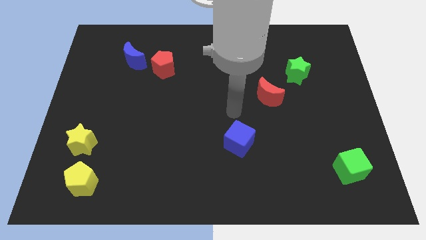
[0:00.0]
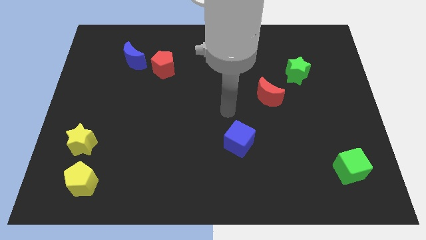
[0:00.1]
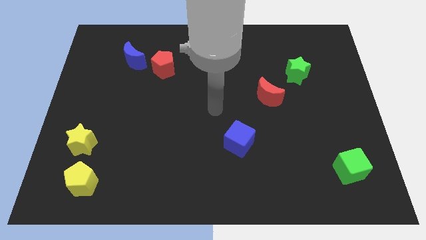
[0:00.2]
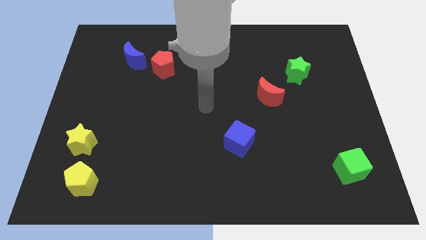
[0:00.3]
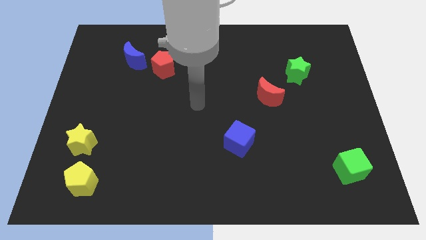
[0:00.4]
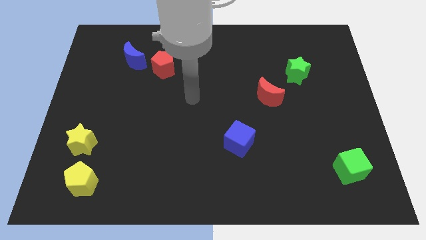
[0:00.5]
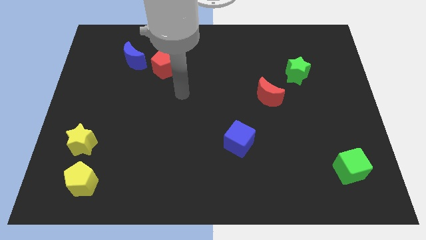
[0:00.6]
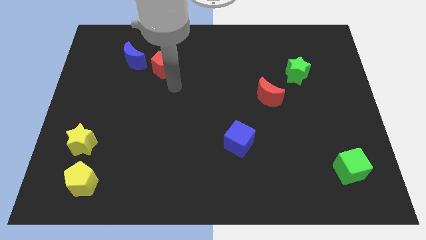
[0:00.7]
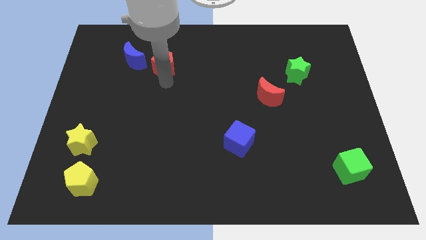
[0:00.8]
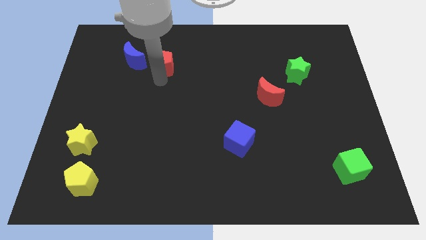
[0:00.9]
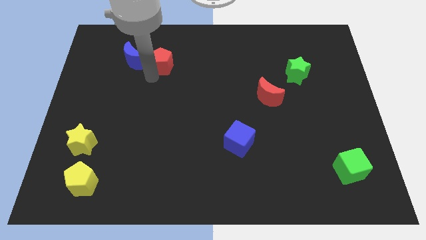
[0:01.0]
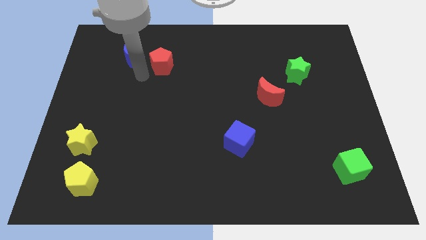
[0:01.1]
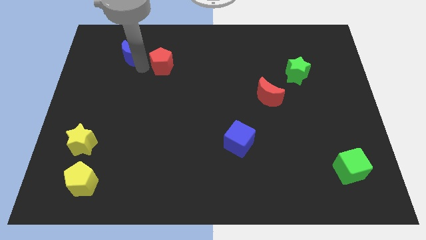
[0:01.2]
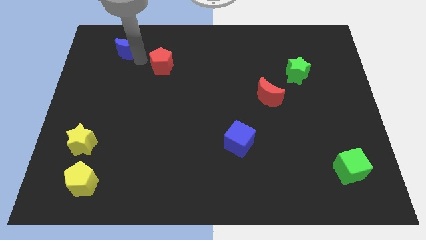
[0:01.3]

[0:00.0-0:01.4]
pull the red pentagon apart from the blue moon

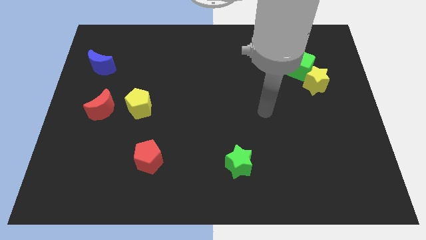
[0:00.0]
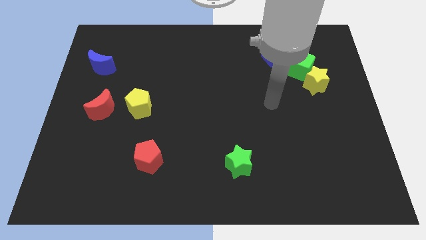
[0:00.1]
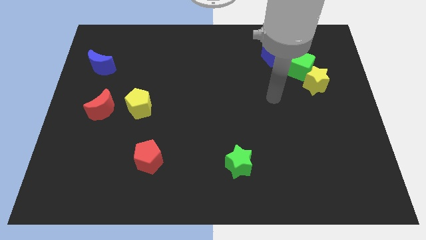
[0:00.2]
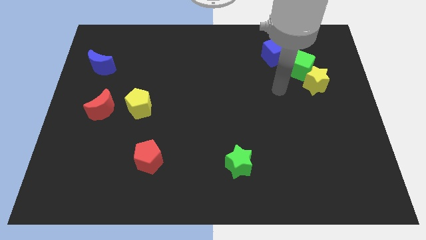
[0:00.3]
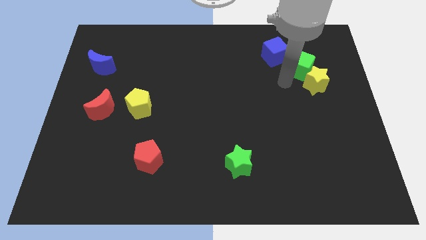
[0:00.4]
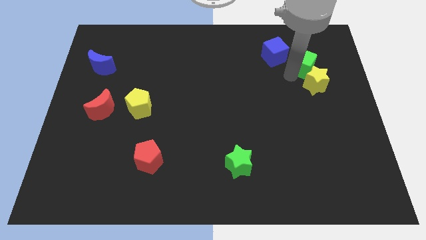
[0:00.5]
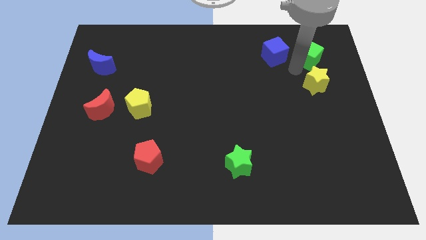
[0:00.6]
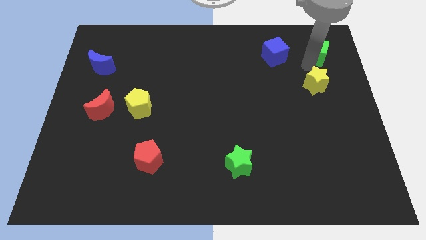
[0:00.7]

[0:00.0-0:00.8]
separate the yellow star from the green cube

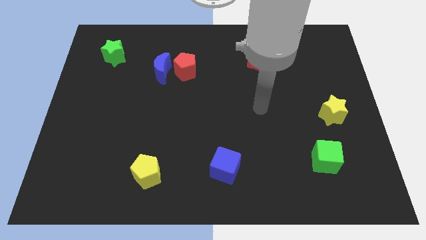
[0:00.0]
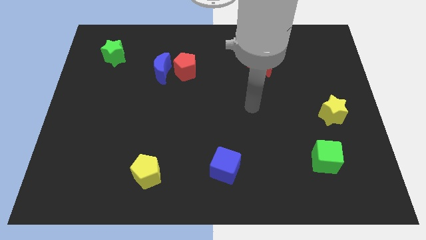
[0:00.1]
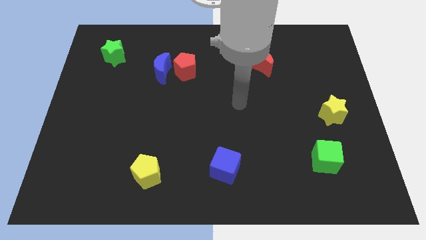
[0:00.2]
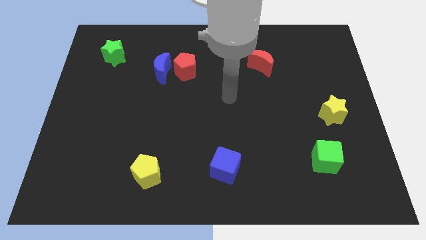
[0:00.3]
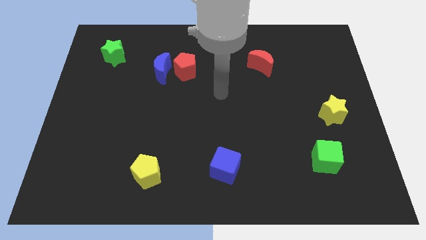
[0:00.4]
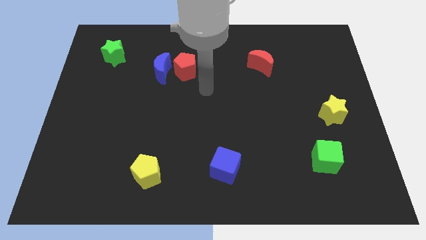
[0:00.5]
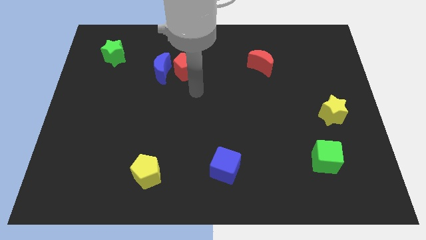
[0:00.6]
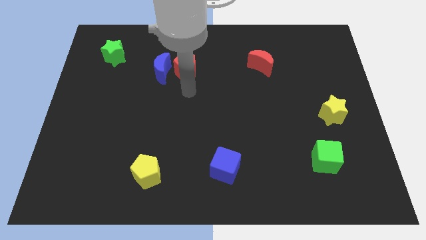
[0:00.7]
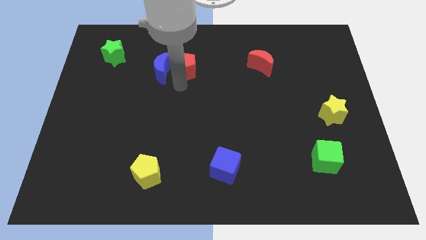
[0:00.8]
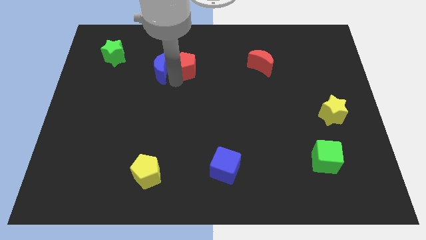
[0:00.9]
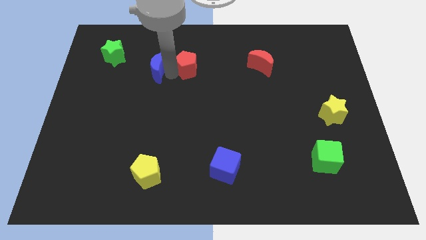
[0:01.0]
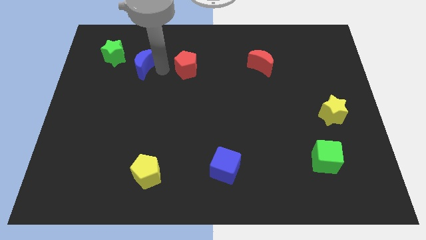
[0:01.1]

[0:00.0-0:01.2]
move the red pentagon away from the blue moon

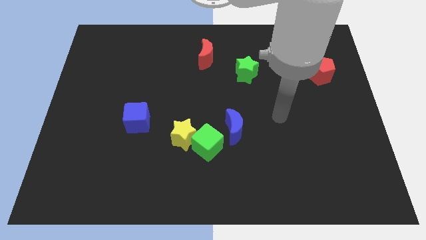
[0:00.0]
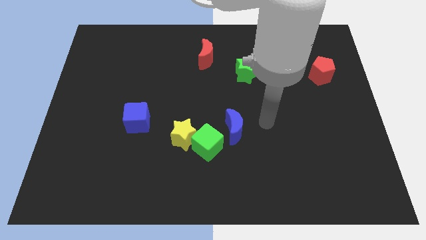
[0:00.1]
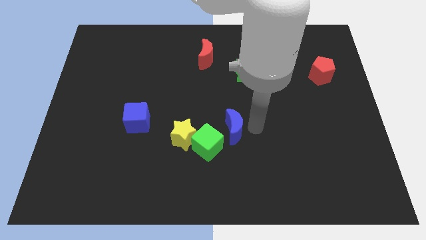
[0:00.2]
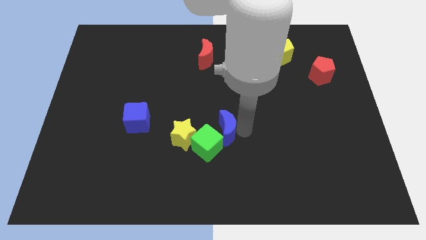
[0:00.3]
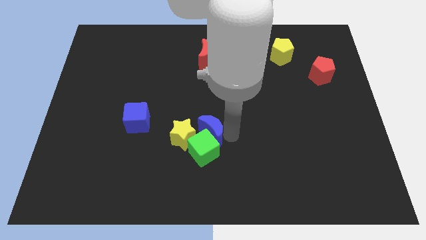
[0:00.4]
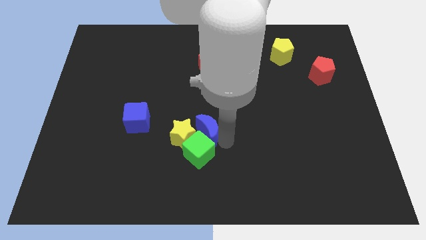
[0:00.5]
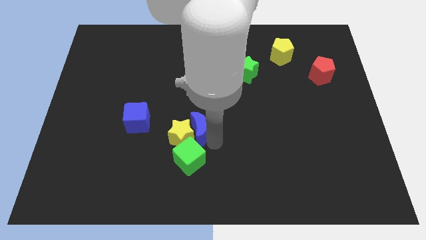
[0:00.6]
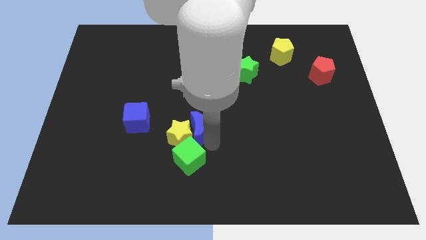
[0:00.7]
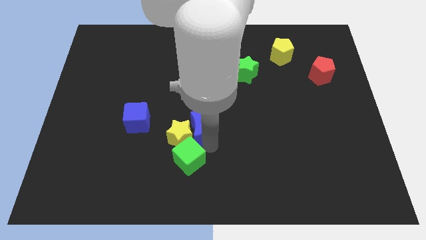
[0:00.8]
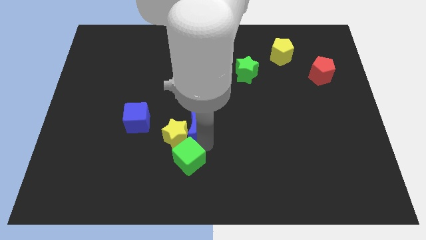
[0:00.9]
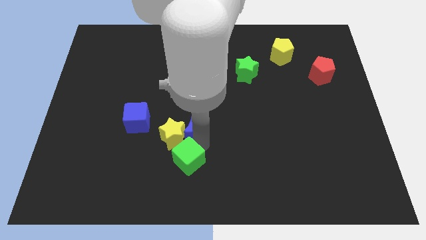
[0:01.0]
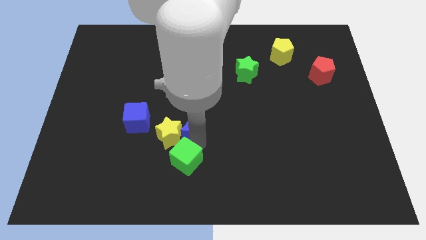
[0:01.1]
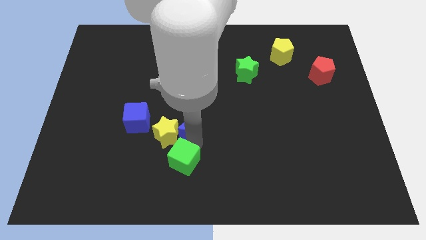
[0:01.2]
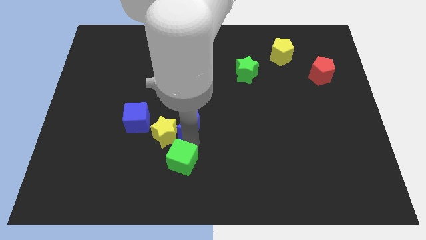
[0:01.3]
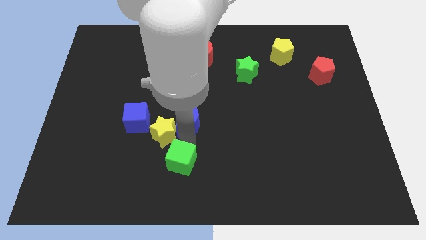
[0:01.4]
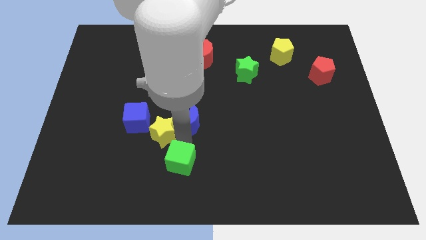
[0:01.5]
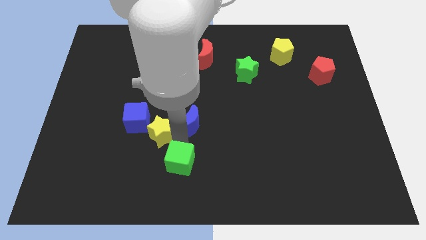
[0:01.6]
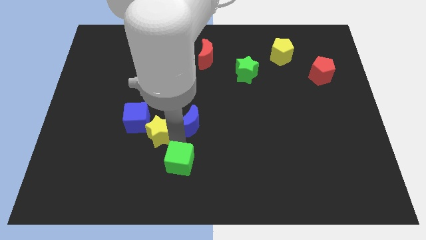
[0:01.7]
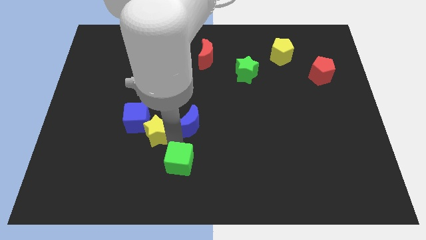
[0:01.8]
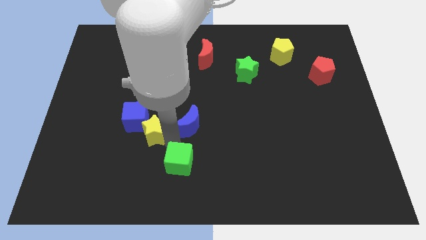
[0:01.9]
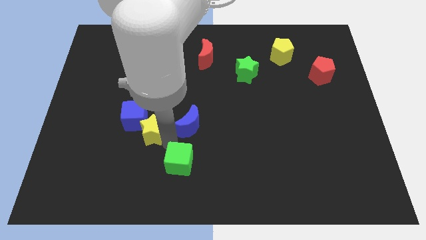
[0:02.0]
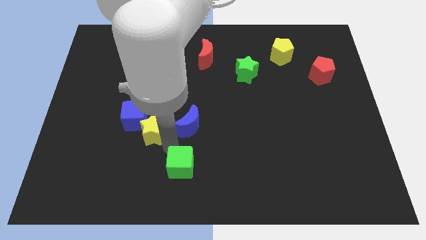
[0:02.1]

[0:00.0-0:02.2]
pull the yellow star apart from the green cube

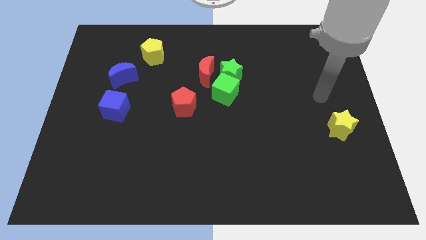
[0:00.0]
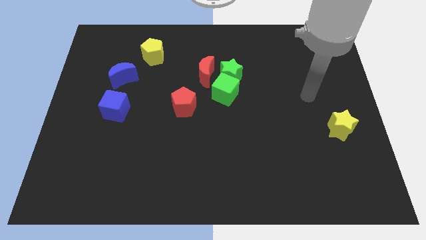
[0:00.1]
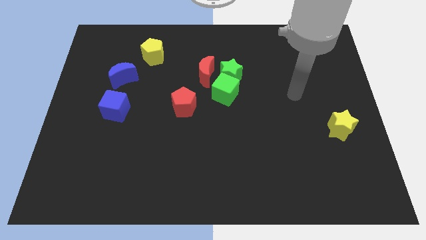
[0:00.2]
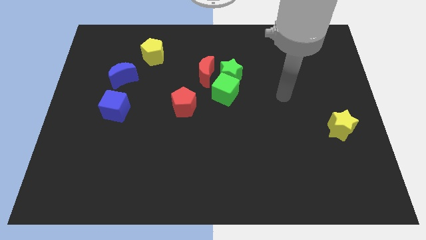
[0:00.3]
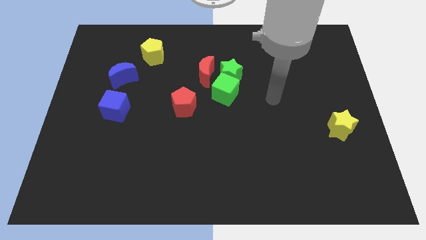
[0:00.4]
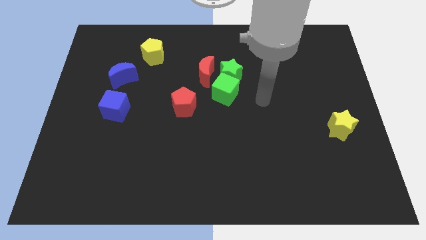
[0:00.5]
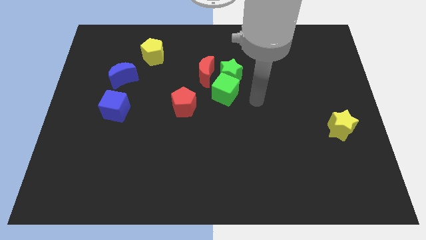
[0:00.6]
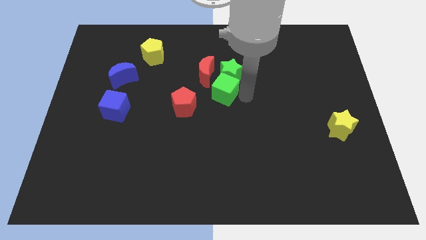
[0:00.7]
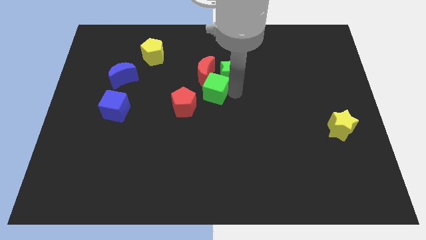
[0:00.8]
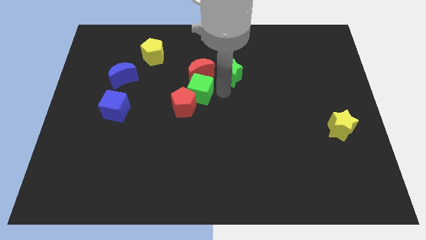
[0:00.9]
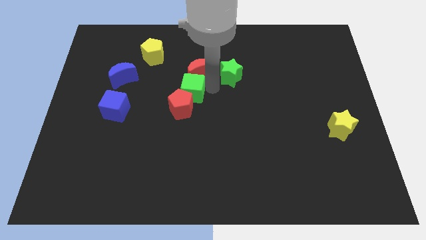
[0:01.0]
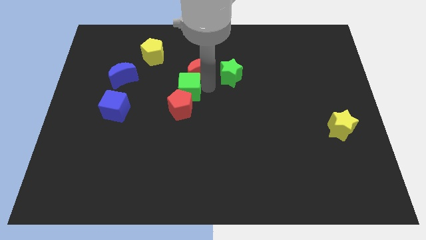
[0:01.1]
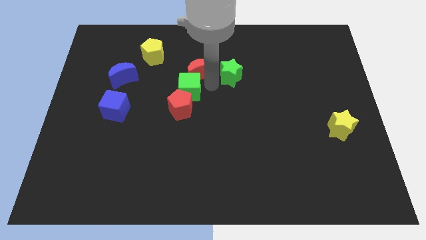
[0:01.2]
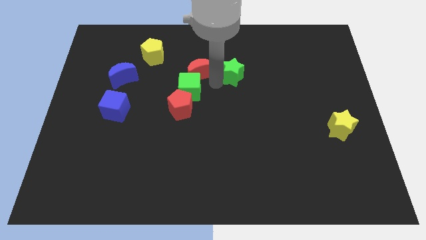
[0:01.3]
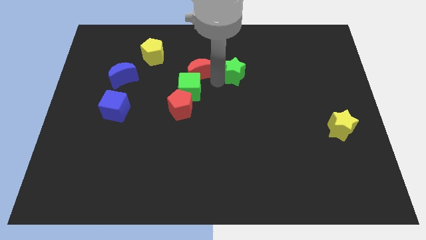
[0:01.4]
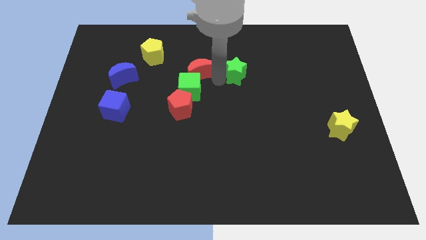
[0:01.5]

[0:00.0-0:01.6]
separate the green star from the green cube and red moon

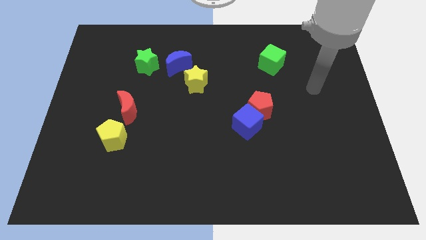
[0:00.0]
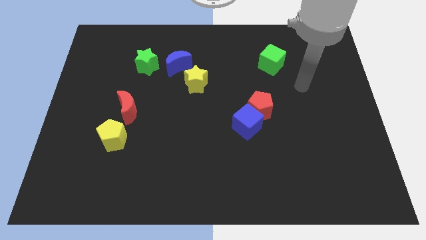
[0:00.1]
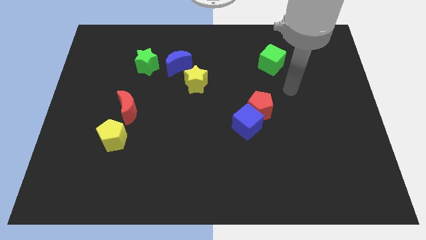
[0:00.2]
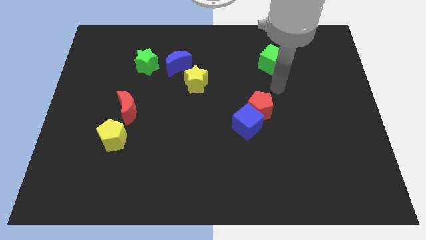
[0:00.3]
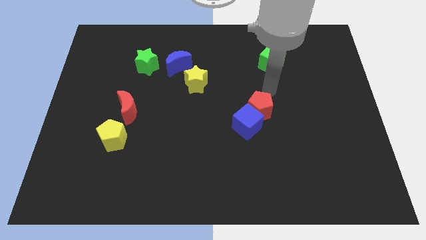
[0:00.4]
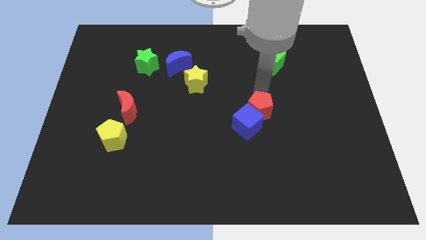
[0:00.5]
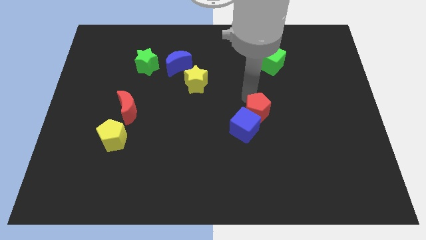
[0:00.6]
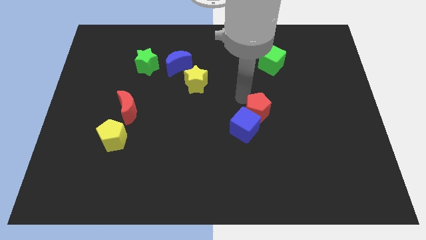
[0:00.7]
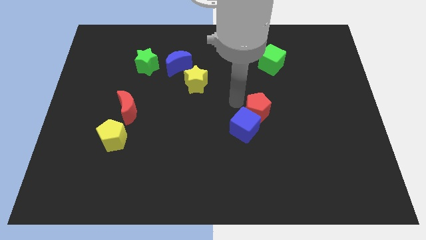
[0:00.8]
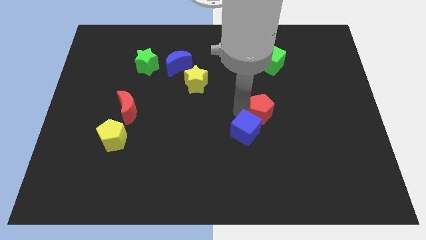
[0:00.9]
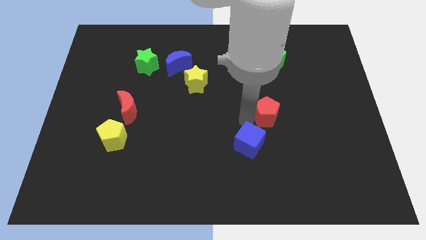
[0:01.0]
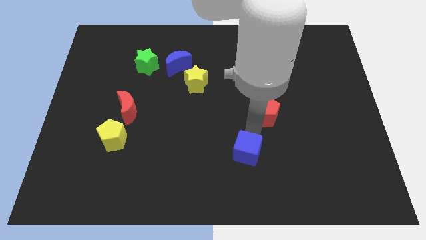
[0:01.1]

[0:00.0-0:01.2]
move the red pentagon away from the blue cube

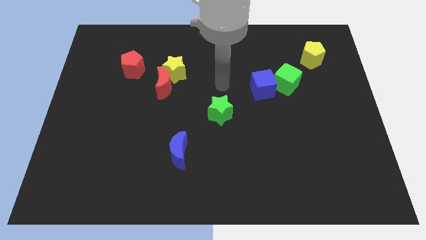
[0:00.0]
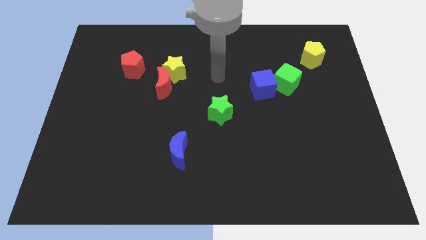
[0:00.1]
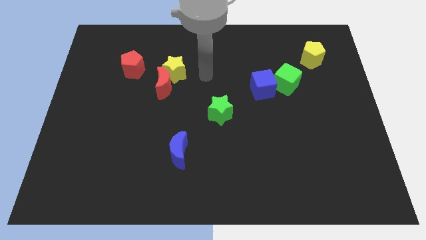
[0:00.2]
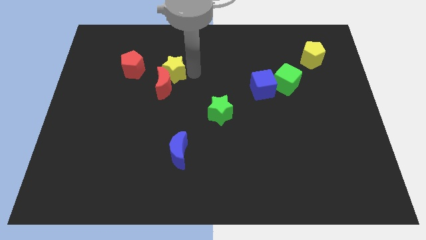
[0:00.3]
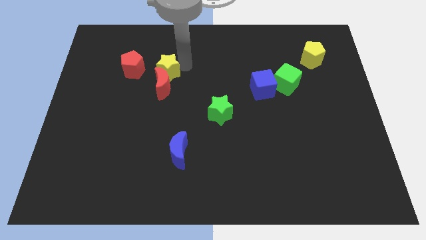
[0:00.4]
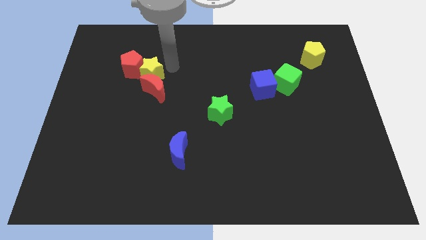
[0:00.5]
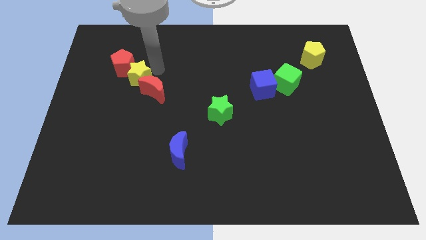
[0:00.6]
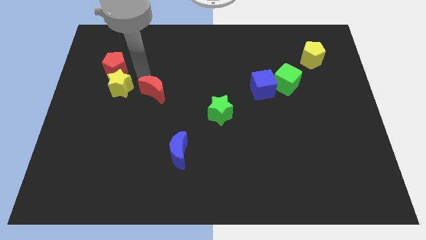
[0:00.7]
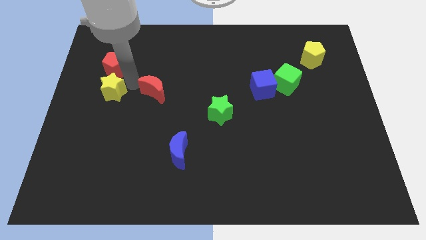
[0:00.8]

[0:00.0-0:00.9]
move the red moon away from the yellow star

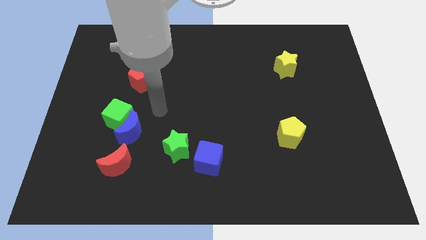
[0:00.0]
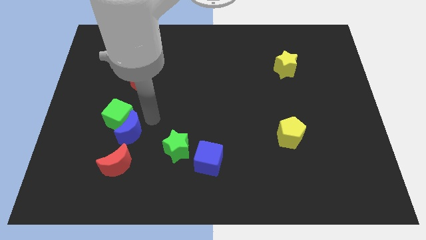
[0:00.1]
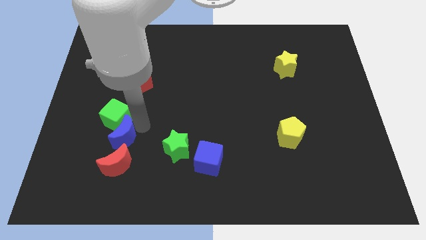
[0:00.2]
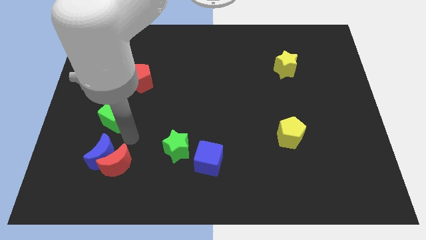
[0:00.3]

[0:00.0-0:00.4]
separate the green cube from the blue moon
